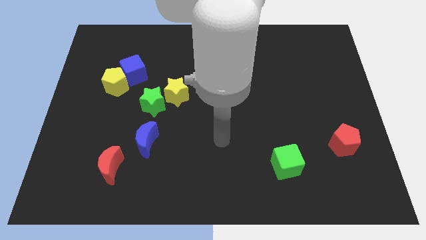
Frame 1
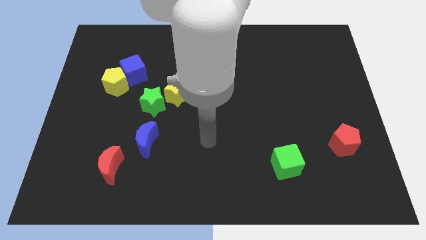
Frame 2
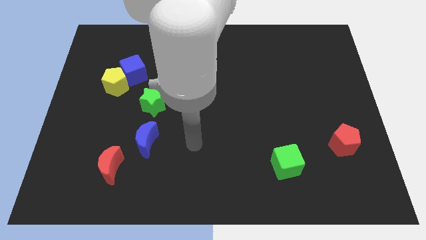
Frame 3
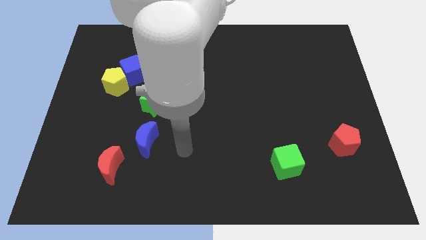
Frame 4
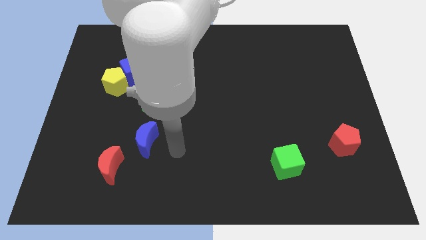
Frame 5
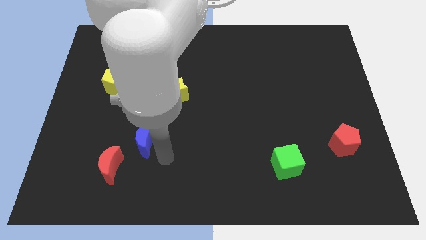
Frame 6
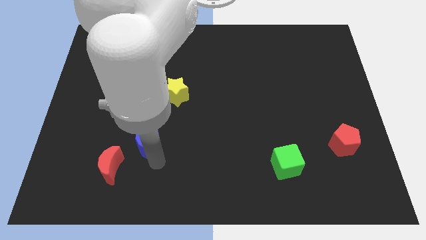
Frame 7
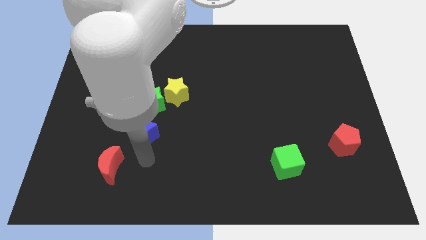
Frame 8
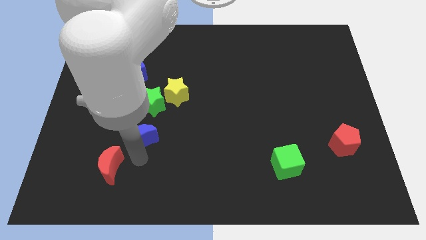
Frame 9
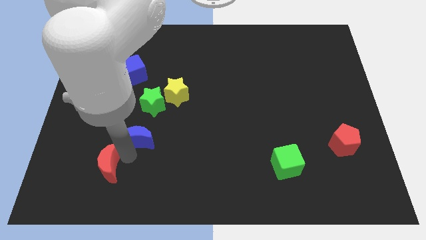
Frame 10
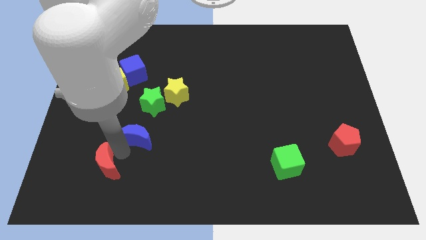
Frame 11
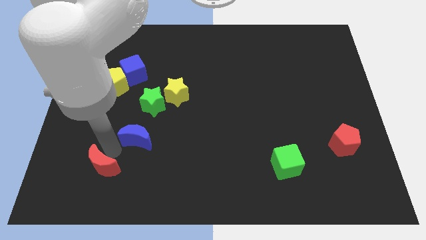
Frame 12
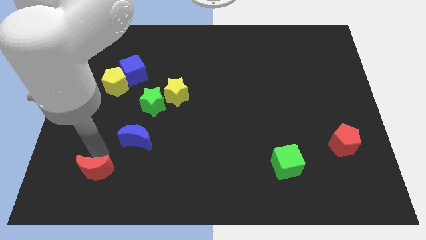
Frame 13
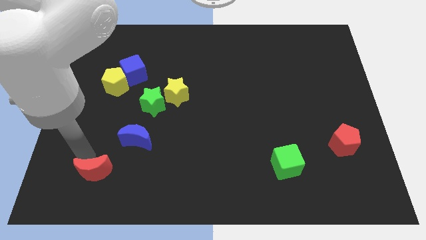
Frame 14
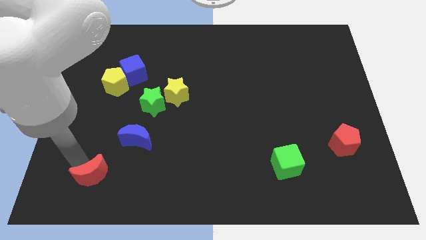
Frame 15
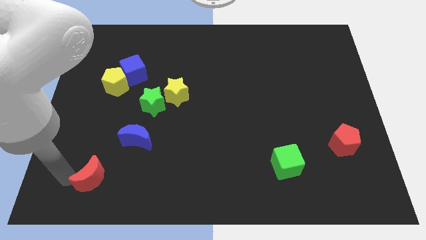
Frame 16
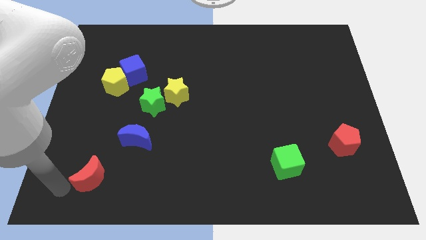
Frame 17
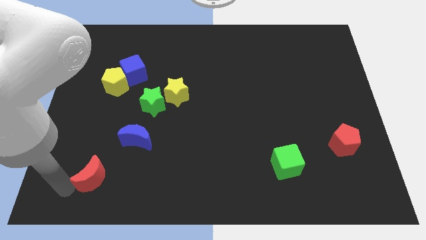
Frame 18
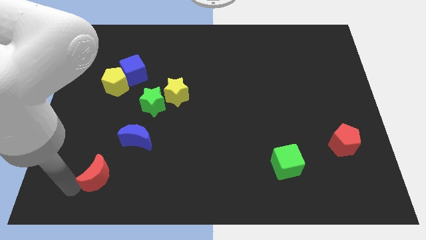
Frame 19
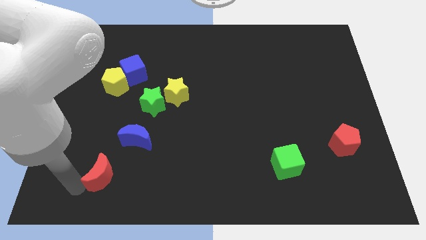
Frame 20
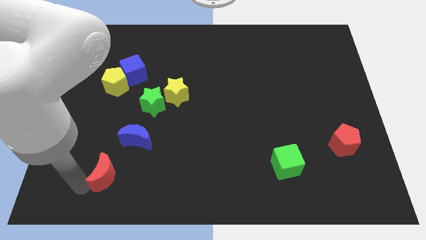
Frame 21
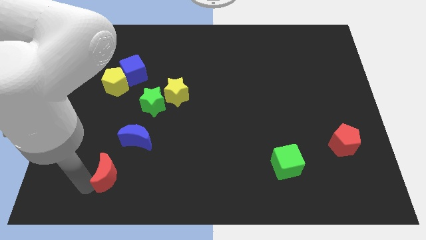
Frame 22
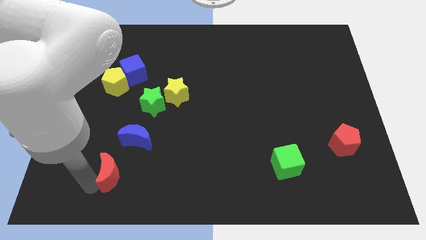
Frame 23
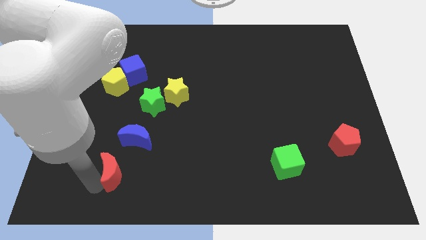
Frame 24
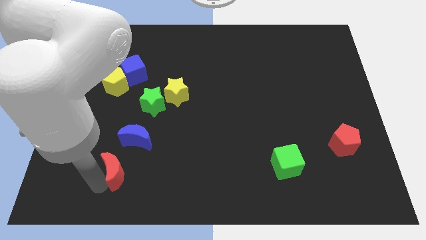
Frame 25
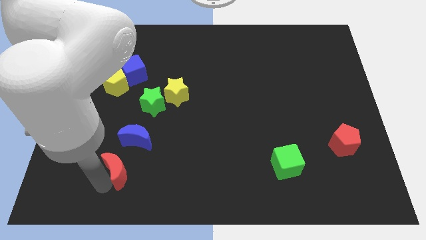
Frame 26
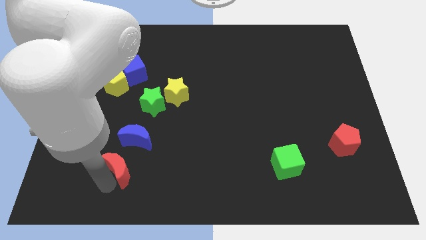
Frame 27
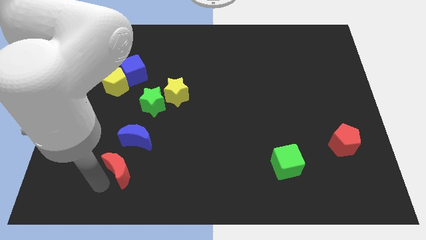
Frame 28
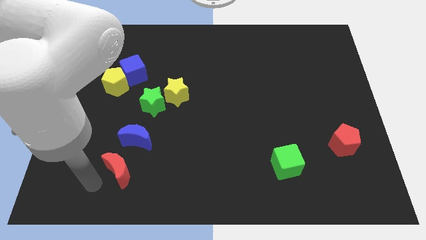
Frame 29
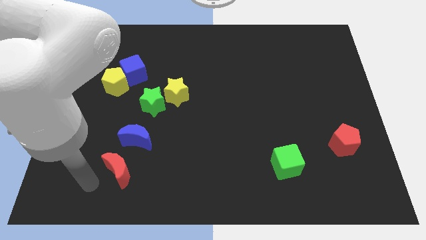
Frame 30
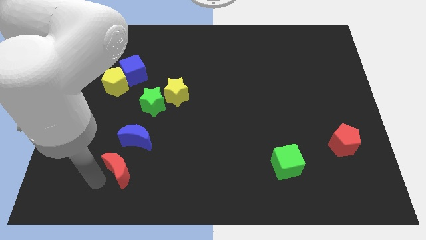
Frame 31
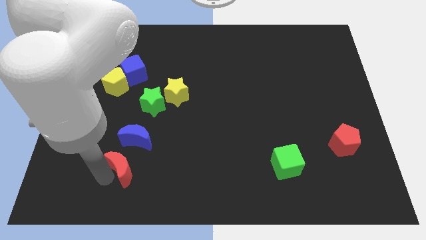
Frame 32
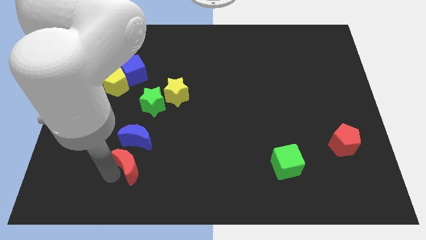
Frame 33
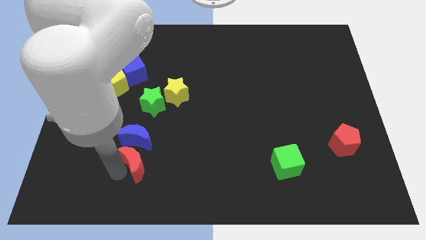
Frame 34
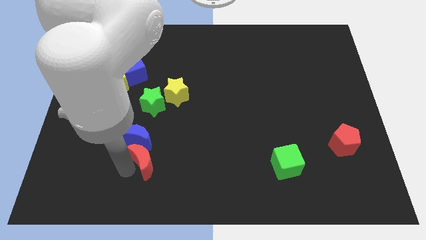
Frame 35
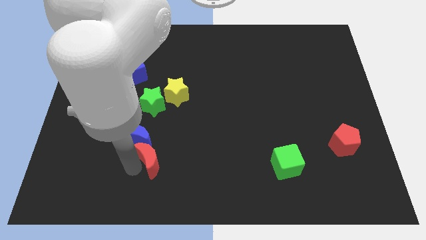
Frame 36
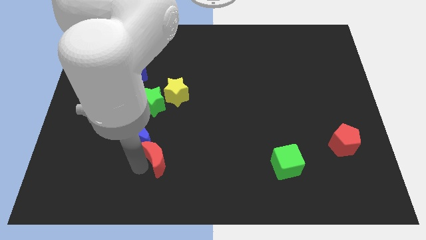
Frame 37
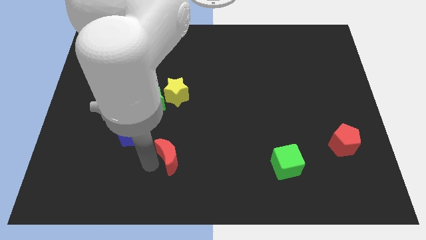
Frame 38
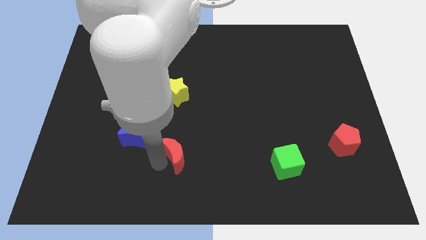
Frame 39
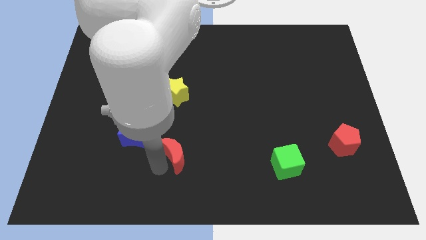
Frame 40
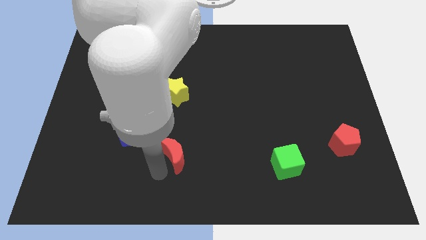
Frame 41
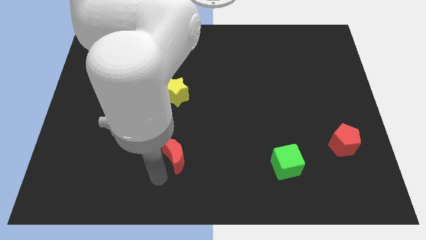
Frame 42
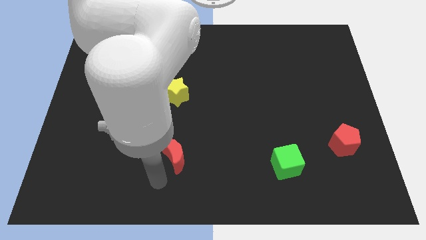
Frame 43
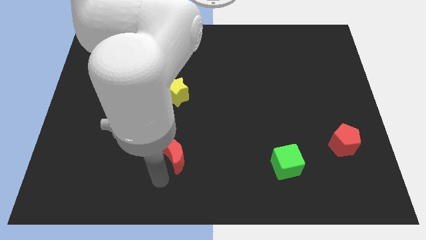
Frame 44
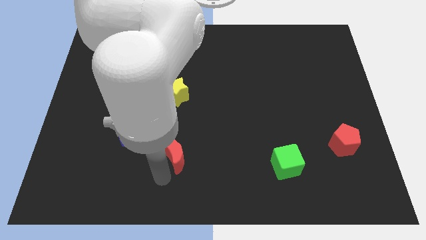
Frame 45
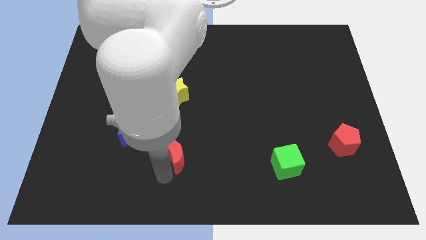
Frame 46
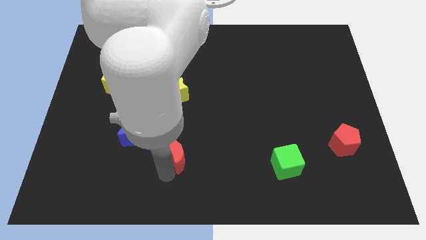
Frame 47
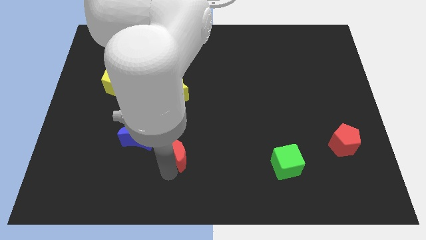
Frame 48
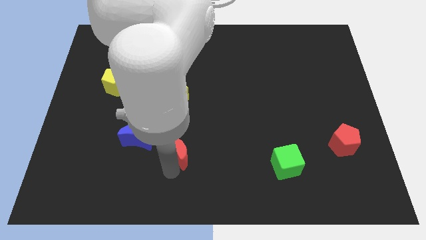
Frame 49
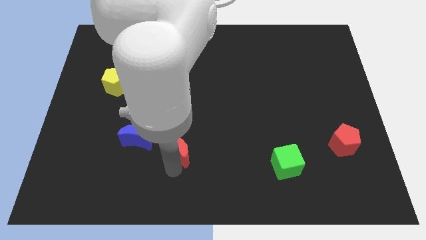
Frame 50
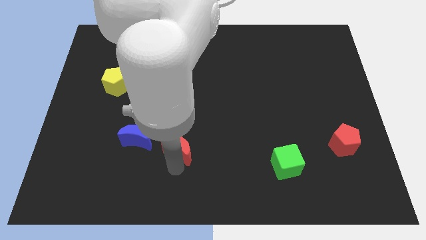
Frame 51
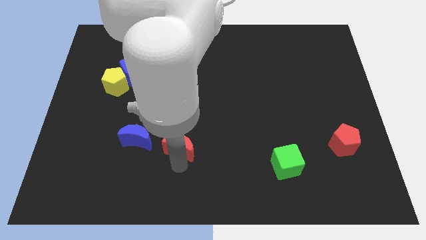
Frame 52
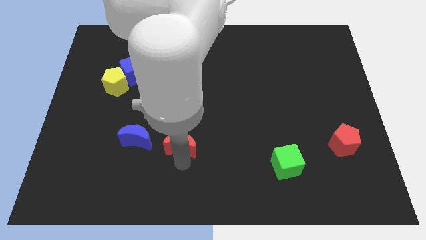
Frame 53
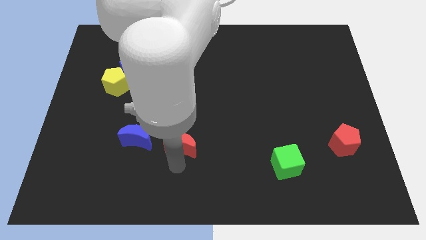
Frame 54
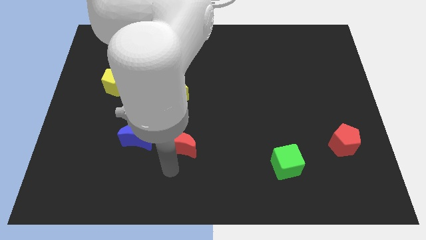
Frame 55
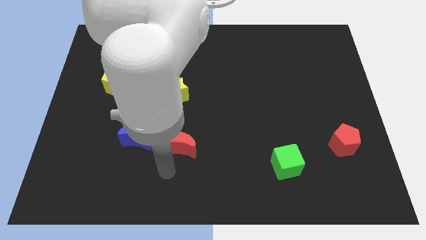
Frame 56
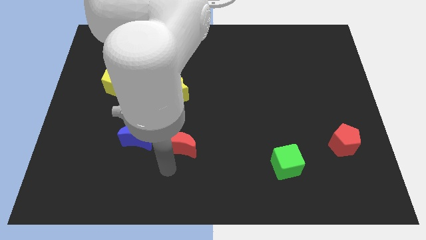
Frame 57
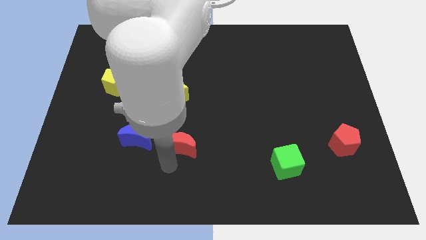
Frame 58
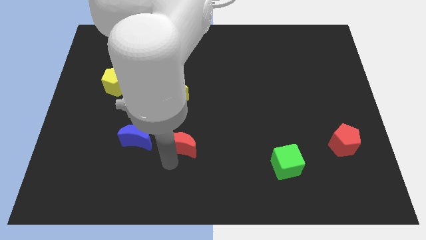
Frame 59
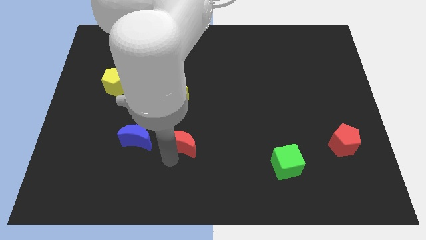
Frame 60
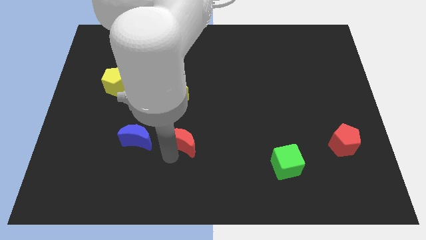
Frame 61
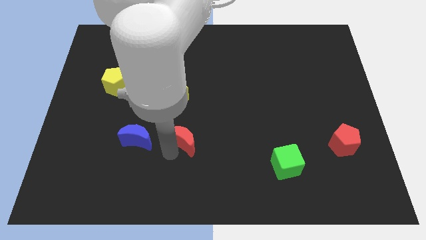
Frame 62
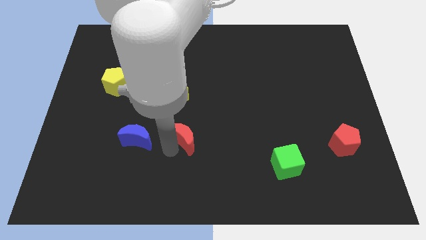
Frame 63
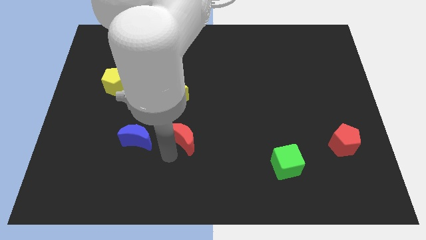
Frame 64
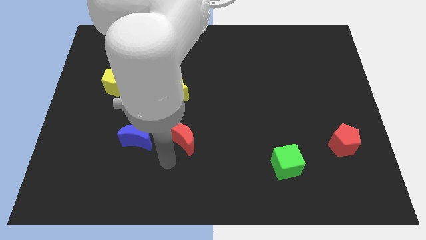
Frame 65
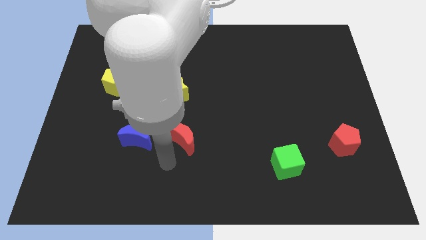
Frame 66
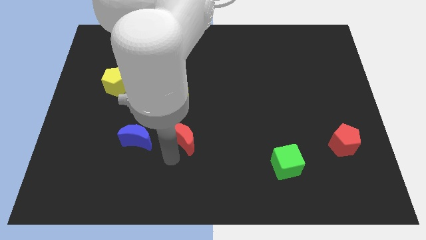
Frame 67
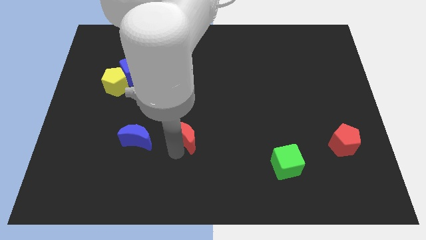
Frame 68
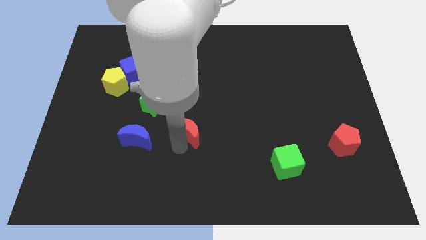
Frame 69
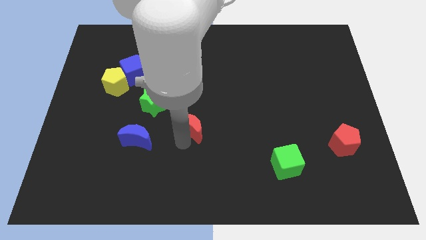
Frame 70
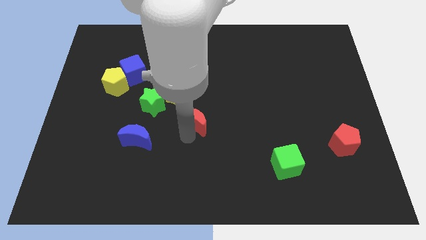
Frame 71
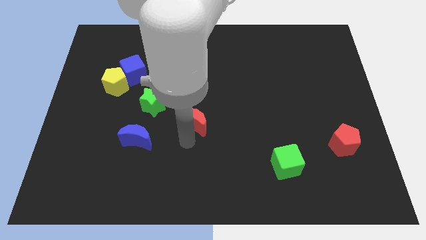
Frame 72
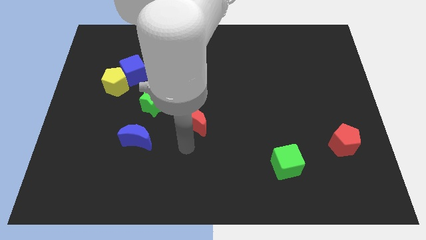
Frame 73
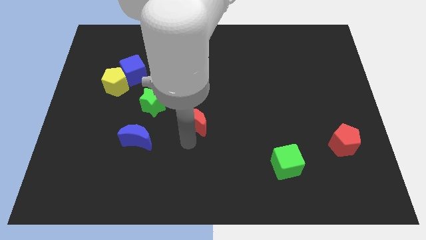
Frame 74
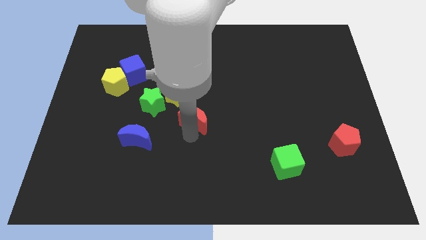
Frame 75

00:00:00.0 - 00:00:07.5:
push the red moon up and right diagonally
